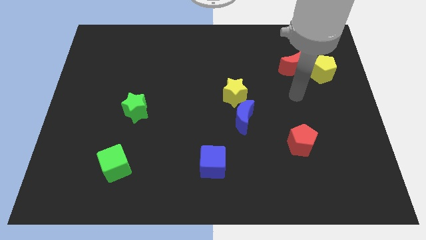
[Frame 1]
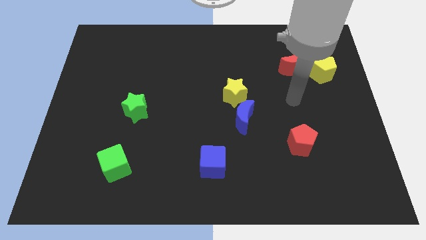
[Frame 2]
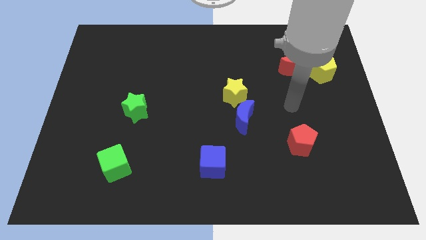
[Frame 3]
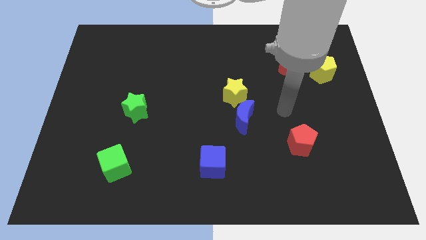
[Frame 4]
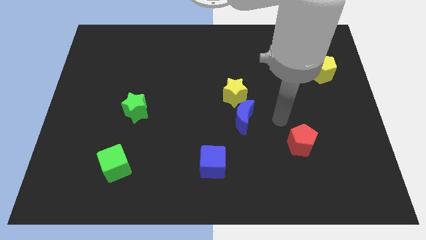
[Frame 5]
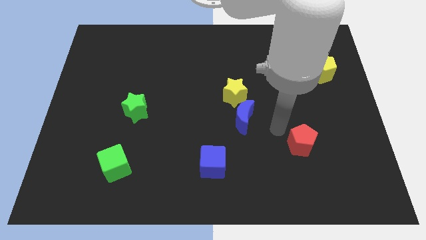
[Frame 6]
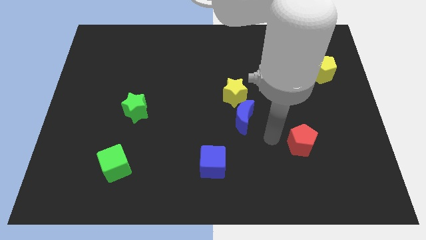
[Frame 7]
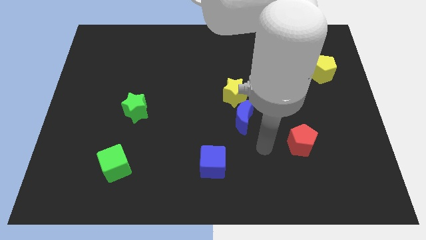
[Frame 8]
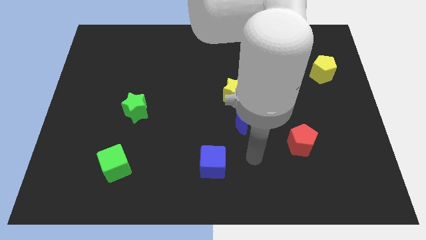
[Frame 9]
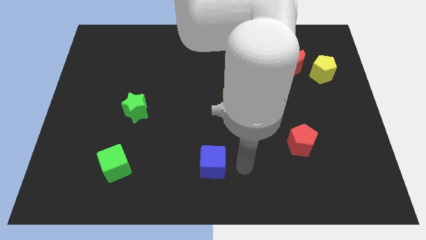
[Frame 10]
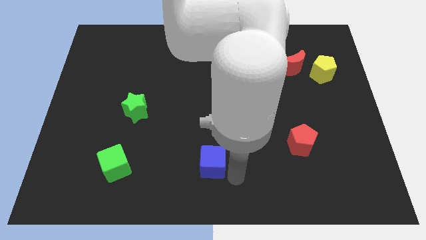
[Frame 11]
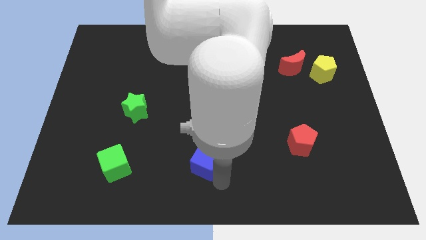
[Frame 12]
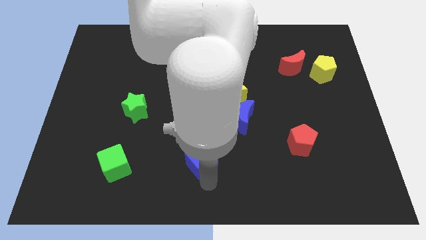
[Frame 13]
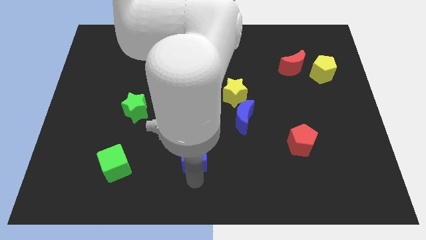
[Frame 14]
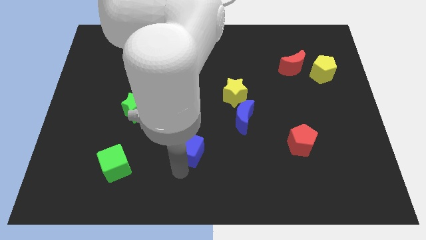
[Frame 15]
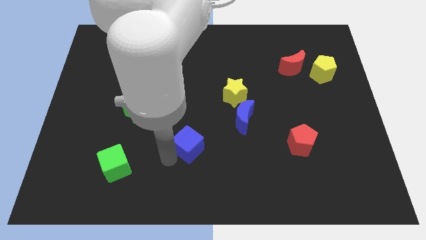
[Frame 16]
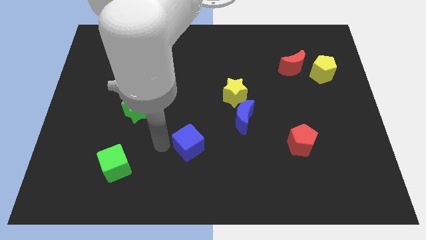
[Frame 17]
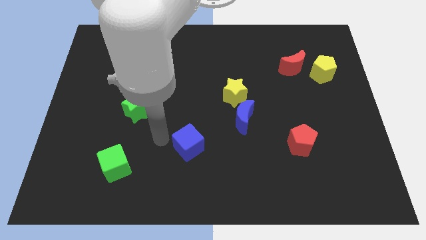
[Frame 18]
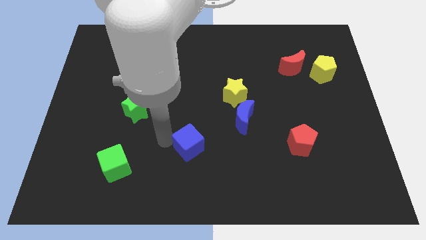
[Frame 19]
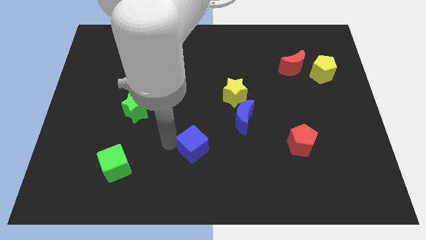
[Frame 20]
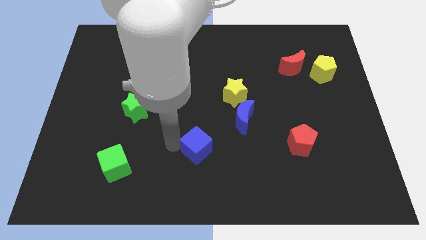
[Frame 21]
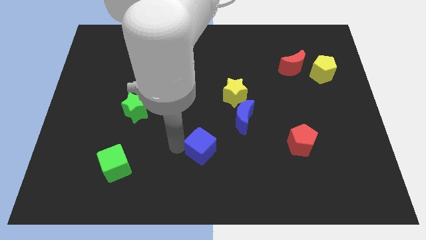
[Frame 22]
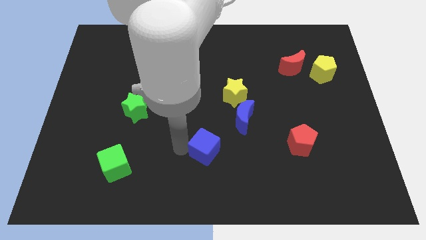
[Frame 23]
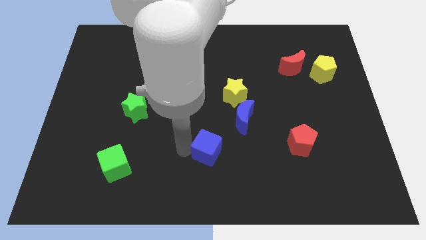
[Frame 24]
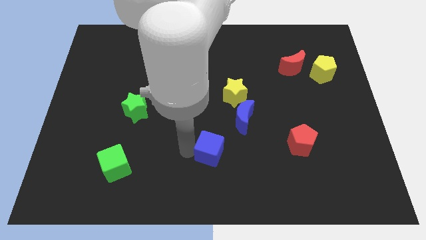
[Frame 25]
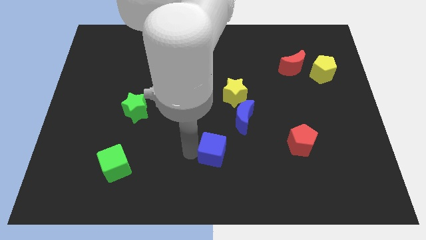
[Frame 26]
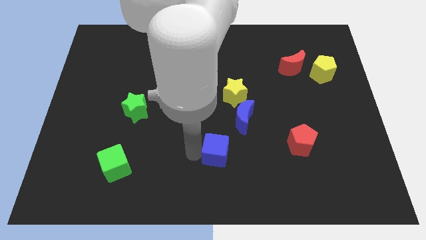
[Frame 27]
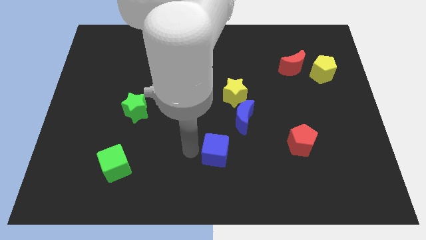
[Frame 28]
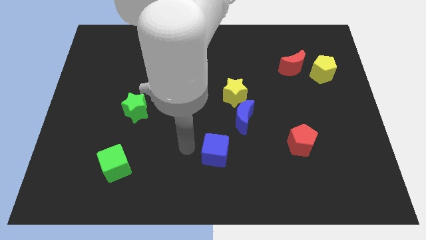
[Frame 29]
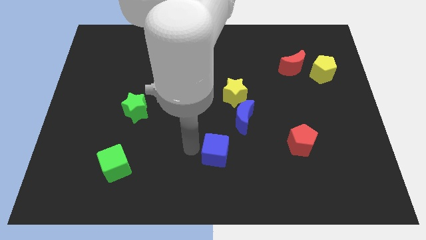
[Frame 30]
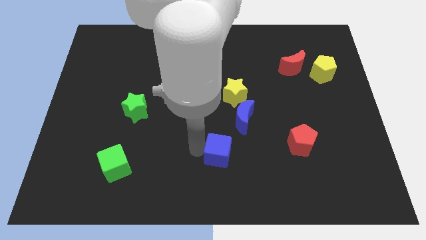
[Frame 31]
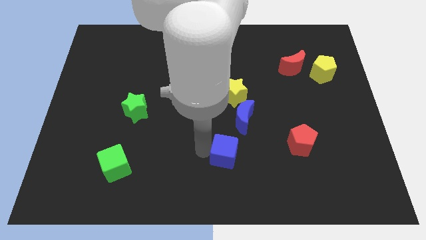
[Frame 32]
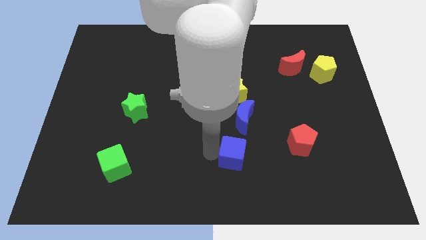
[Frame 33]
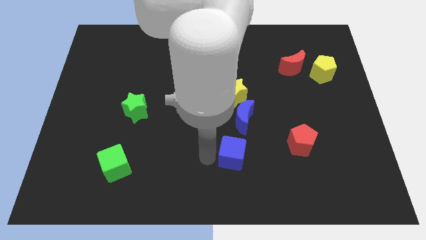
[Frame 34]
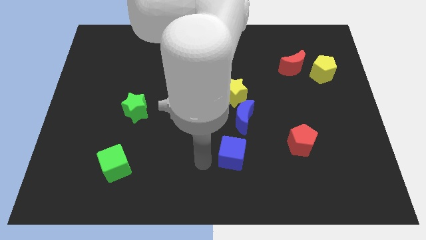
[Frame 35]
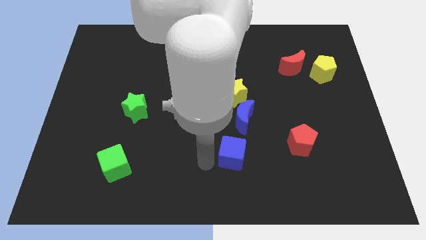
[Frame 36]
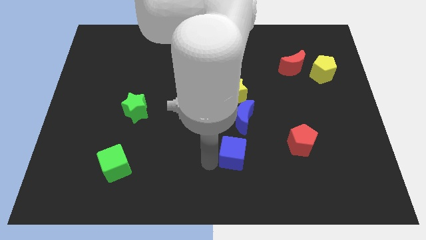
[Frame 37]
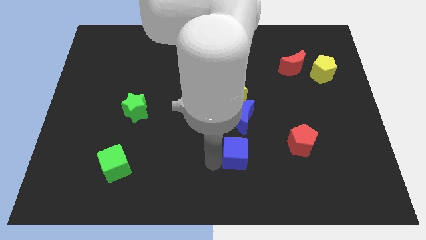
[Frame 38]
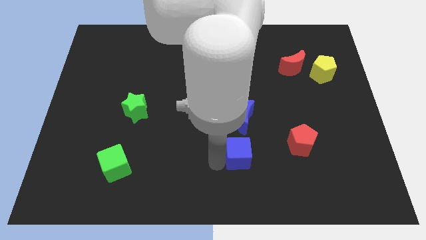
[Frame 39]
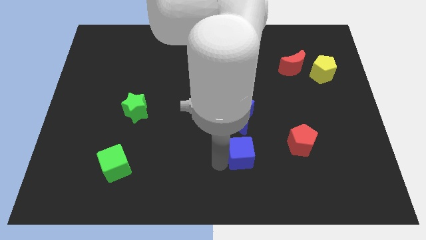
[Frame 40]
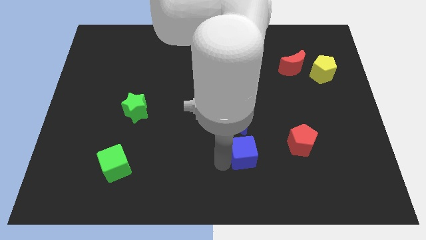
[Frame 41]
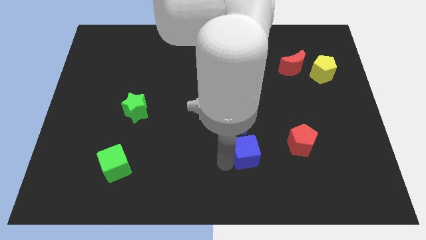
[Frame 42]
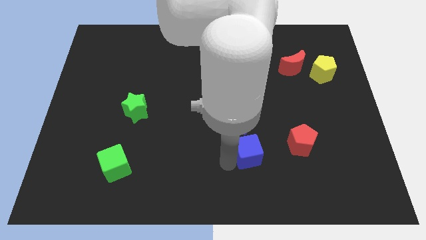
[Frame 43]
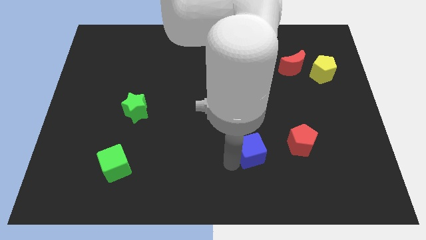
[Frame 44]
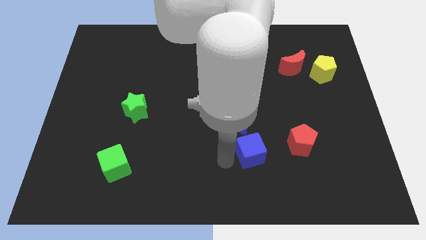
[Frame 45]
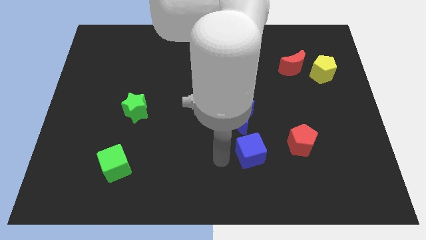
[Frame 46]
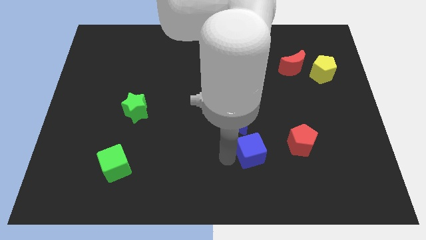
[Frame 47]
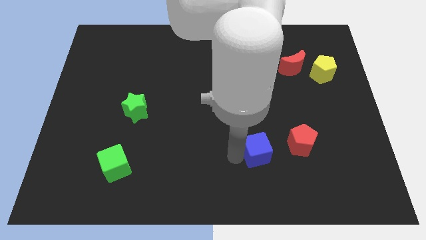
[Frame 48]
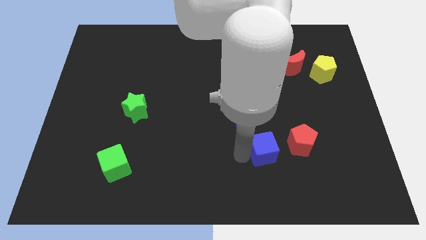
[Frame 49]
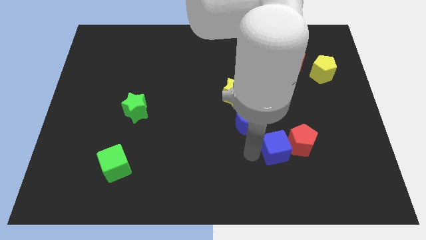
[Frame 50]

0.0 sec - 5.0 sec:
push the blue cube towards the red pentagon

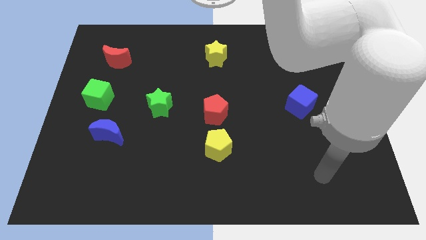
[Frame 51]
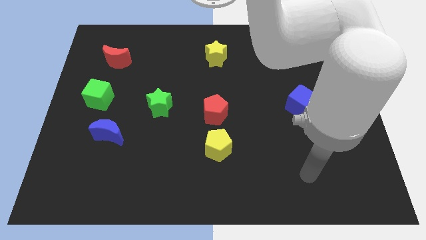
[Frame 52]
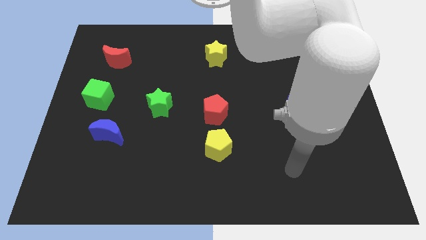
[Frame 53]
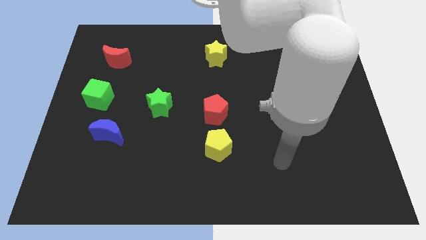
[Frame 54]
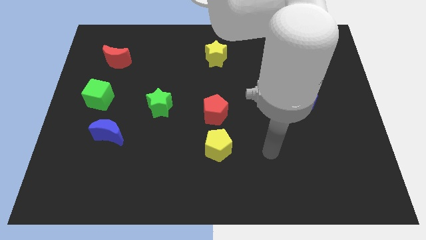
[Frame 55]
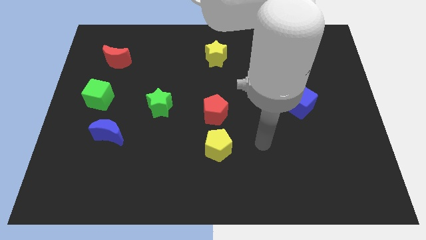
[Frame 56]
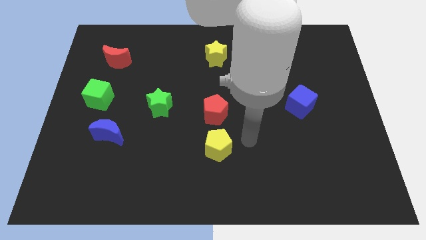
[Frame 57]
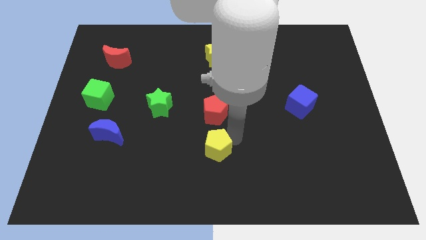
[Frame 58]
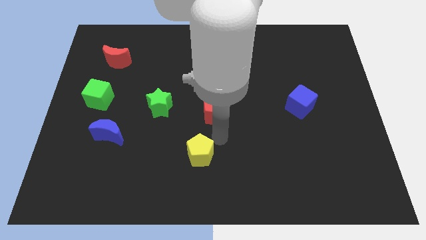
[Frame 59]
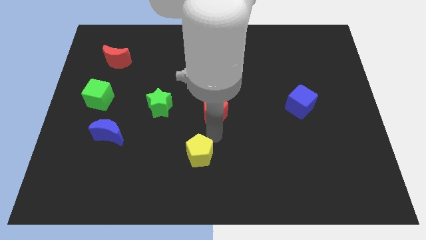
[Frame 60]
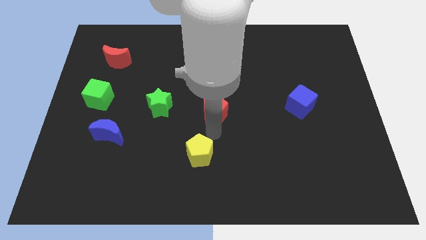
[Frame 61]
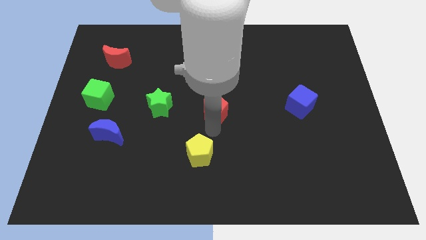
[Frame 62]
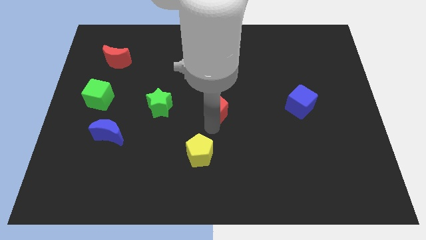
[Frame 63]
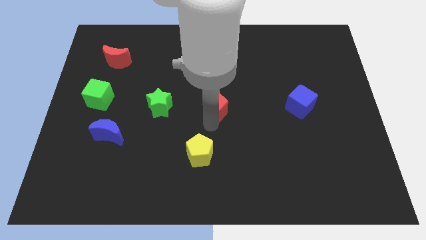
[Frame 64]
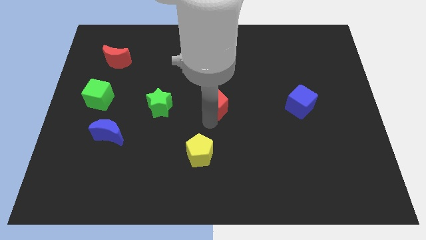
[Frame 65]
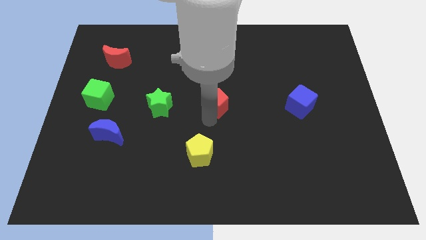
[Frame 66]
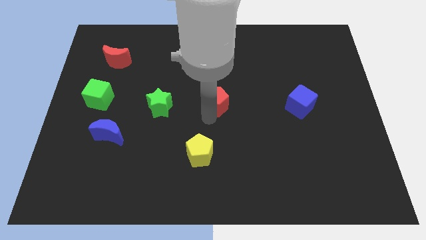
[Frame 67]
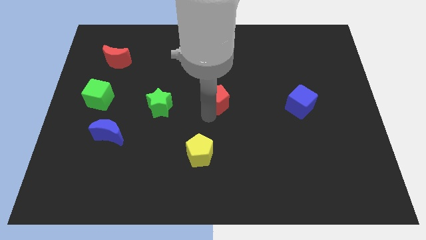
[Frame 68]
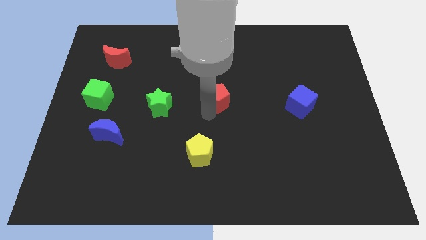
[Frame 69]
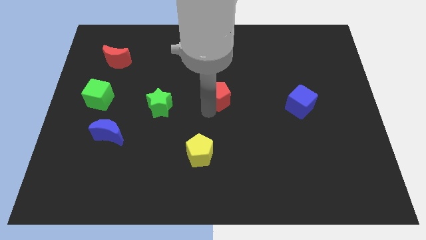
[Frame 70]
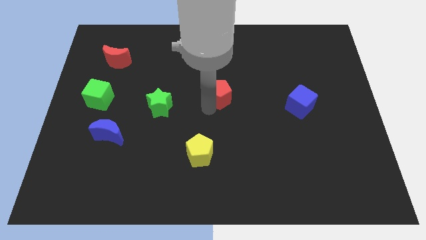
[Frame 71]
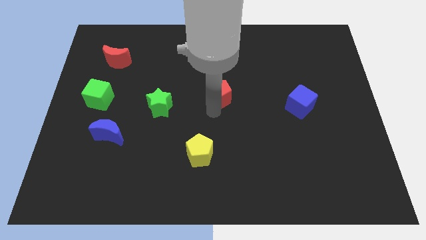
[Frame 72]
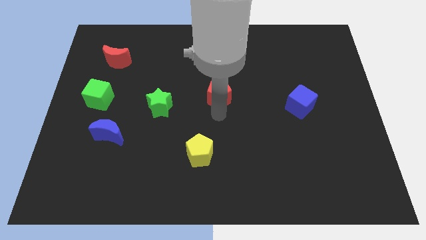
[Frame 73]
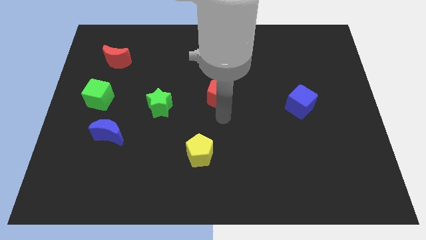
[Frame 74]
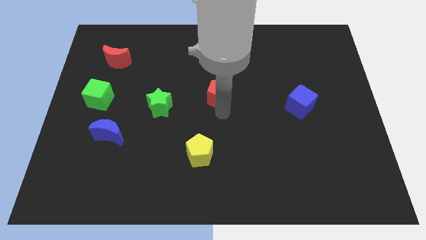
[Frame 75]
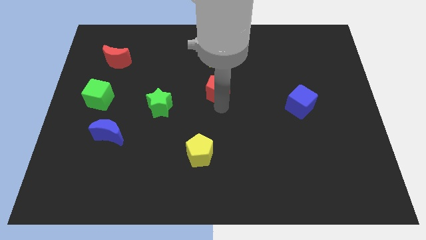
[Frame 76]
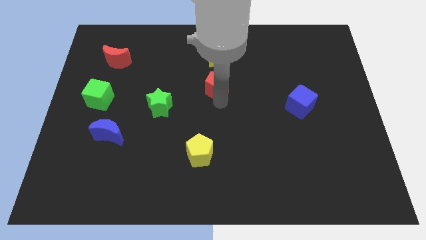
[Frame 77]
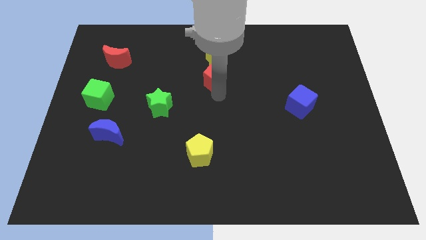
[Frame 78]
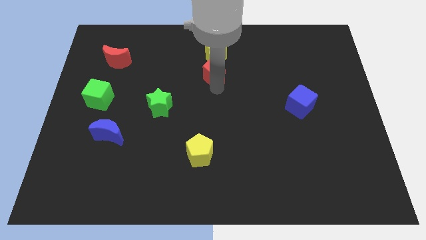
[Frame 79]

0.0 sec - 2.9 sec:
slide the red pentagon next to the yellow star

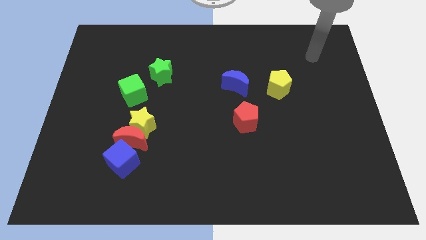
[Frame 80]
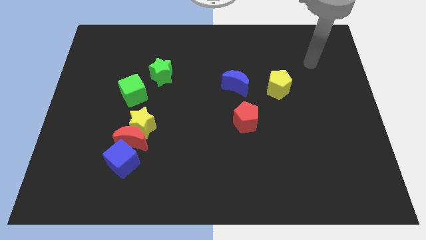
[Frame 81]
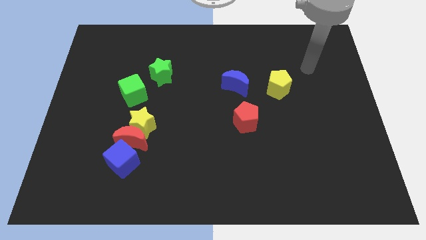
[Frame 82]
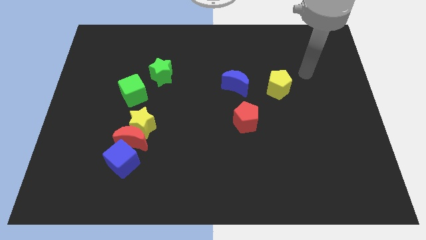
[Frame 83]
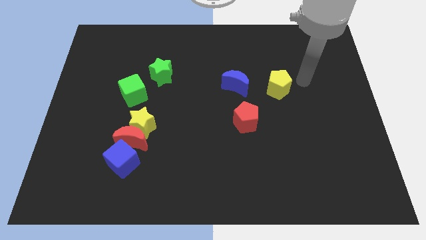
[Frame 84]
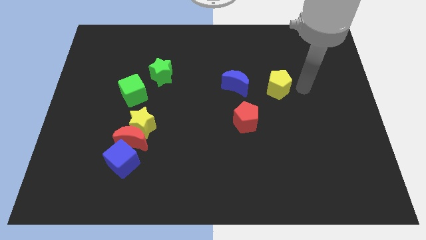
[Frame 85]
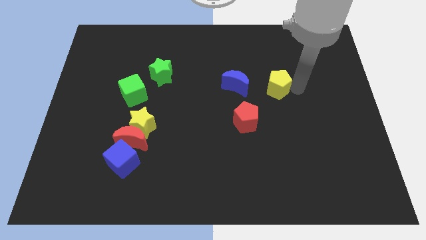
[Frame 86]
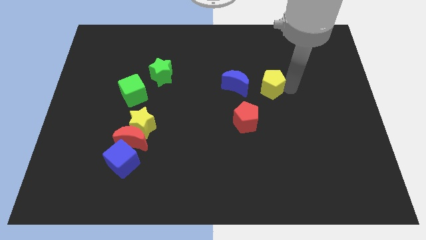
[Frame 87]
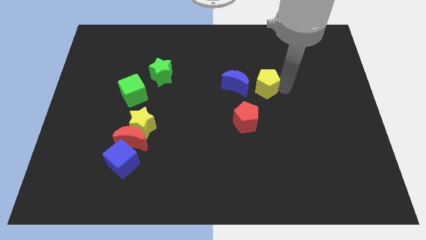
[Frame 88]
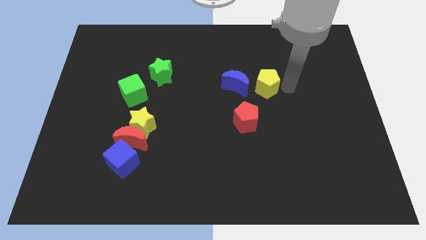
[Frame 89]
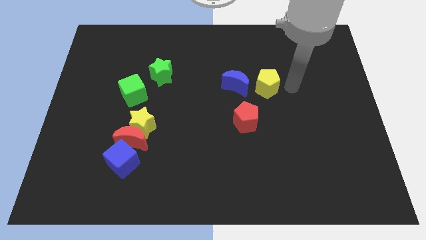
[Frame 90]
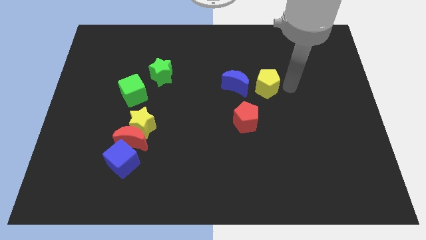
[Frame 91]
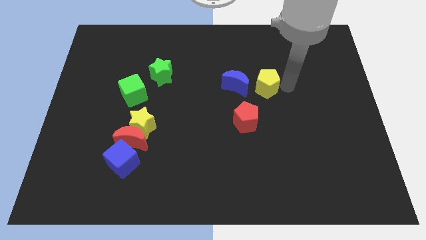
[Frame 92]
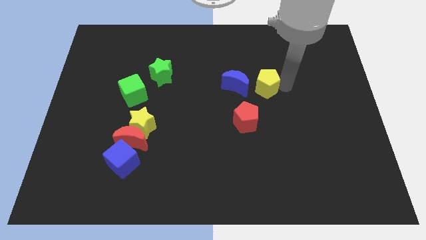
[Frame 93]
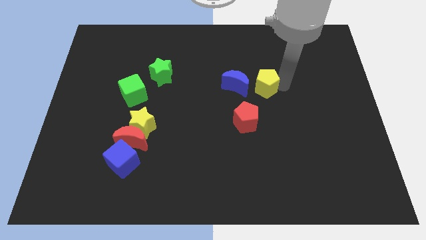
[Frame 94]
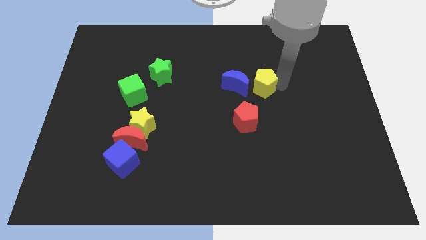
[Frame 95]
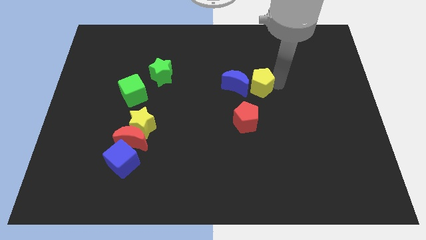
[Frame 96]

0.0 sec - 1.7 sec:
slide the yellow pentagon close to the blue moon
